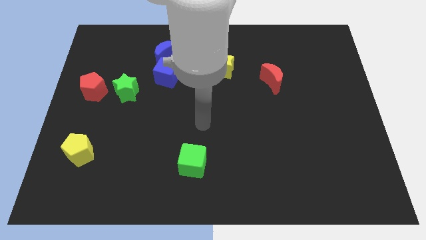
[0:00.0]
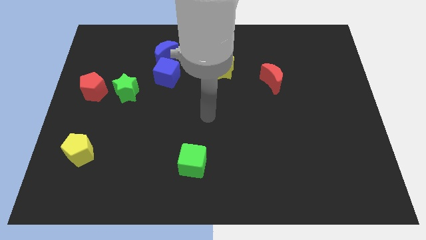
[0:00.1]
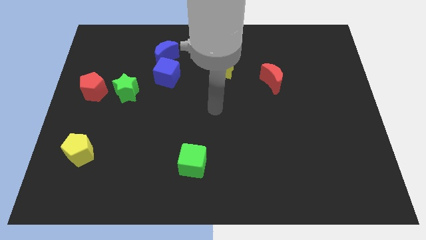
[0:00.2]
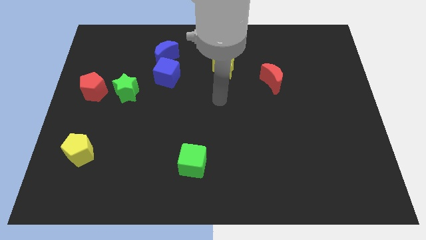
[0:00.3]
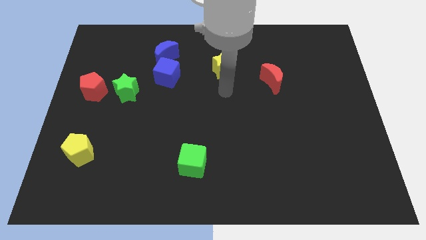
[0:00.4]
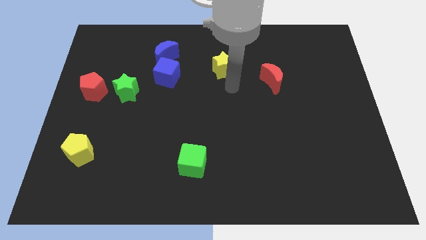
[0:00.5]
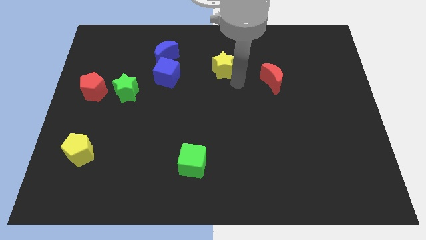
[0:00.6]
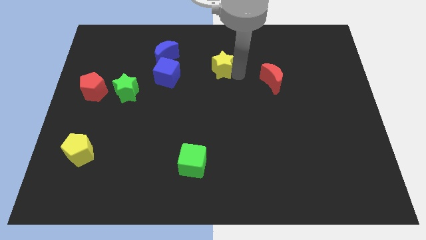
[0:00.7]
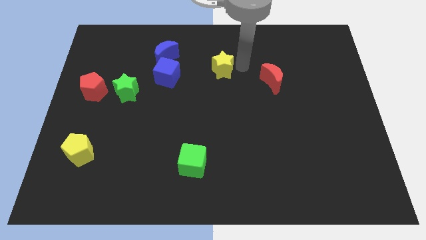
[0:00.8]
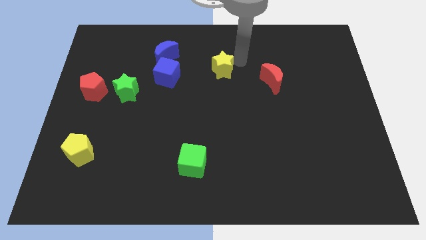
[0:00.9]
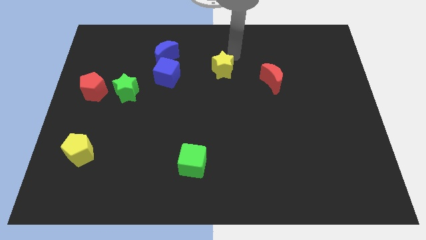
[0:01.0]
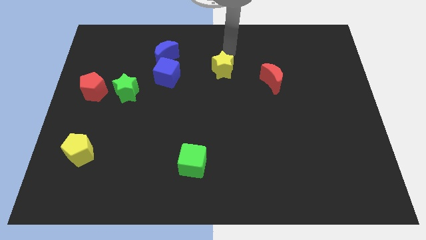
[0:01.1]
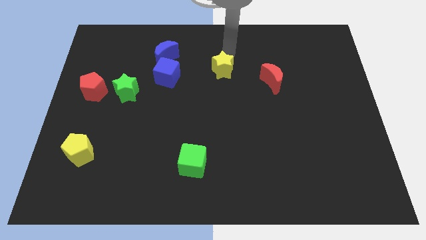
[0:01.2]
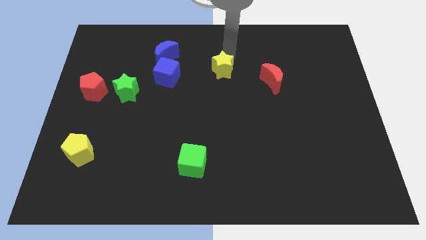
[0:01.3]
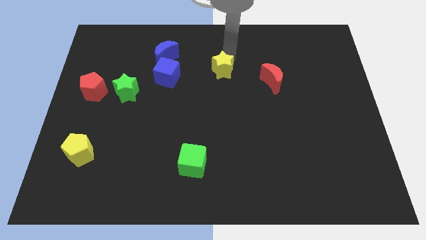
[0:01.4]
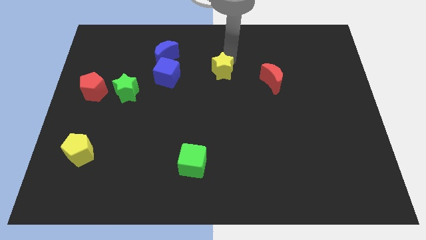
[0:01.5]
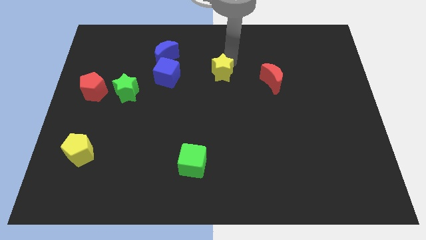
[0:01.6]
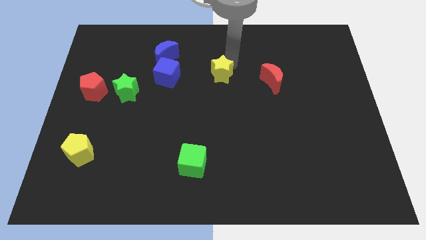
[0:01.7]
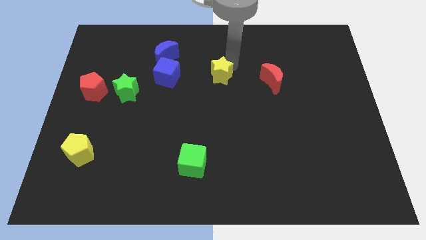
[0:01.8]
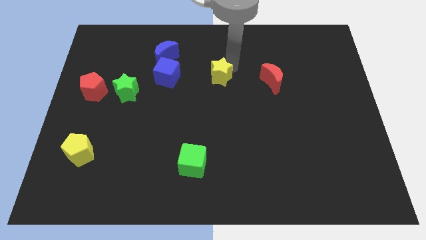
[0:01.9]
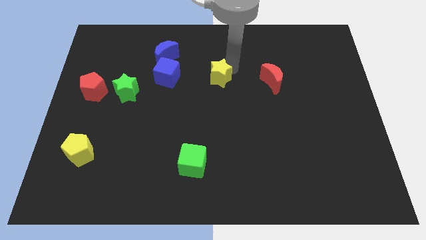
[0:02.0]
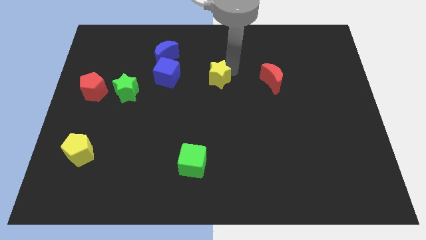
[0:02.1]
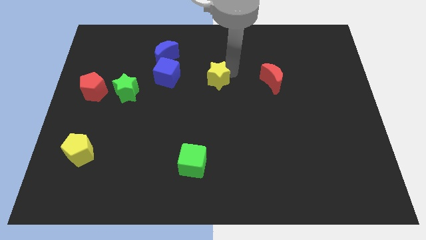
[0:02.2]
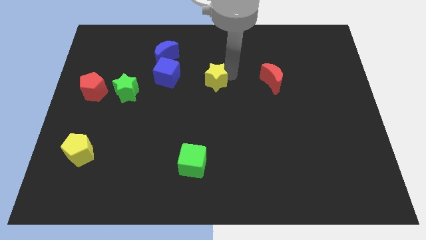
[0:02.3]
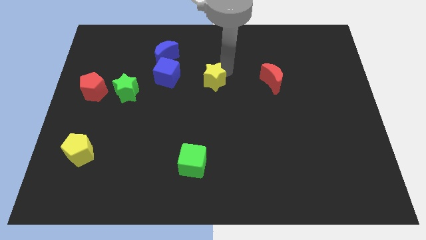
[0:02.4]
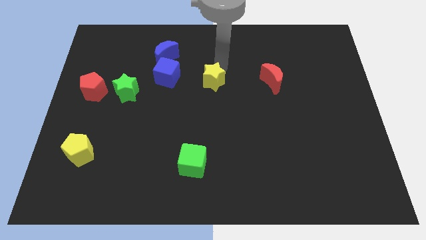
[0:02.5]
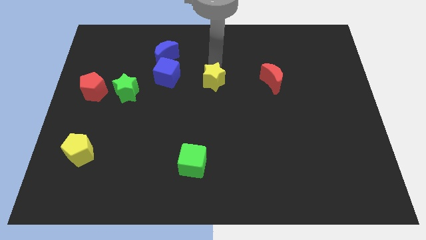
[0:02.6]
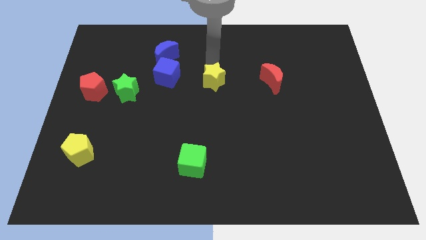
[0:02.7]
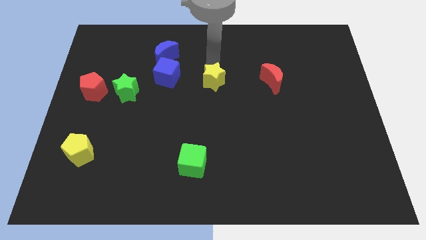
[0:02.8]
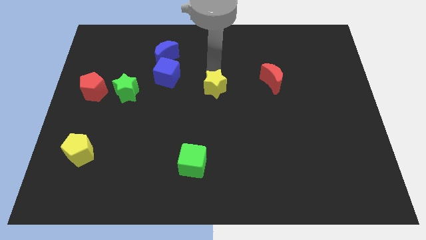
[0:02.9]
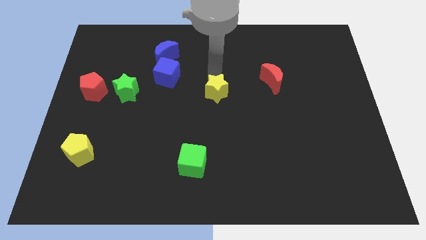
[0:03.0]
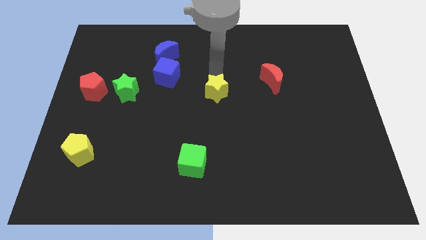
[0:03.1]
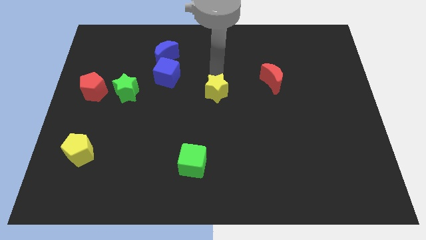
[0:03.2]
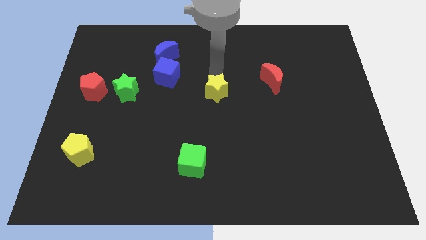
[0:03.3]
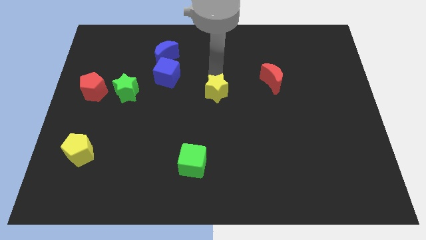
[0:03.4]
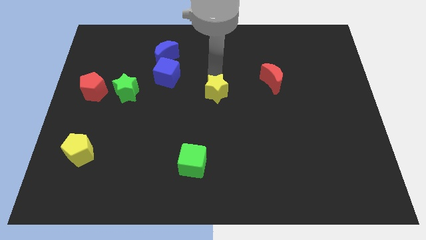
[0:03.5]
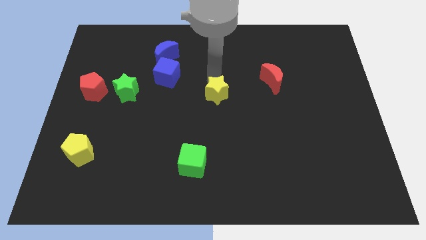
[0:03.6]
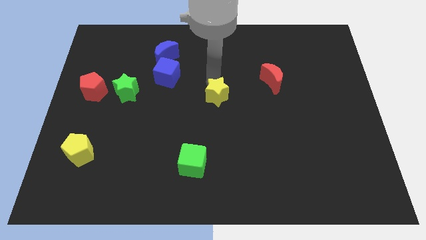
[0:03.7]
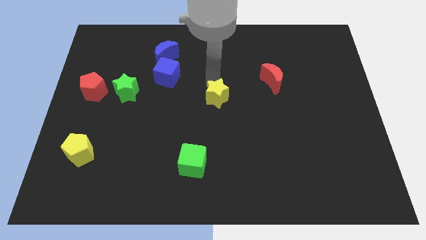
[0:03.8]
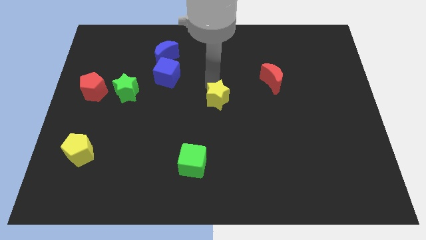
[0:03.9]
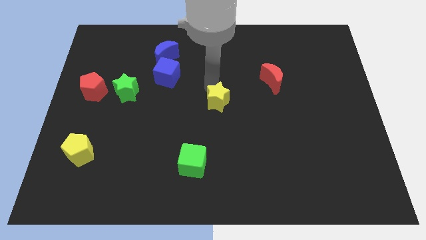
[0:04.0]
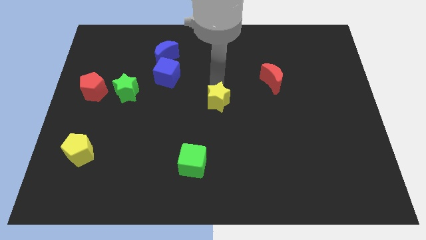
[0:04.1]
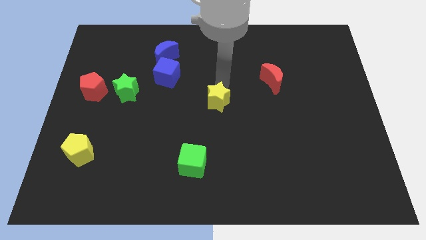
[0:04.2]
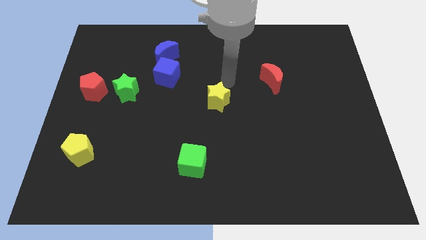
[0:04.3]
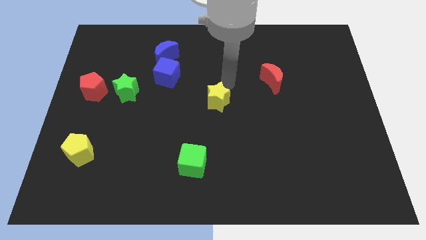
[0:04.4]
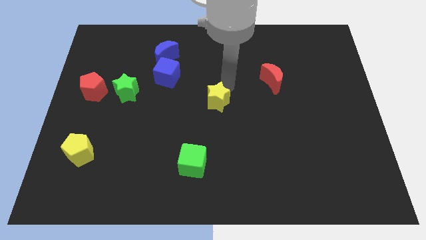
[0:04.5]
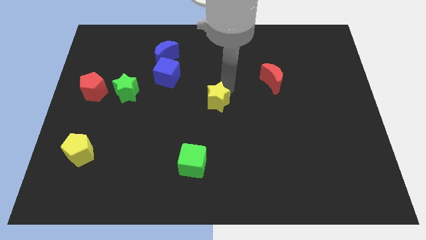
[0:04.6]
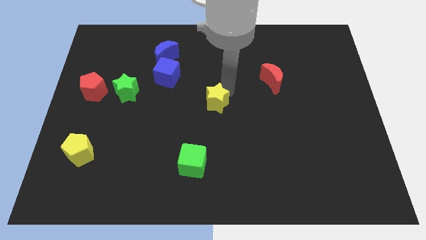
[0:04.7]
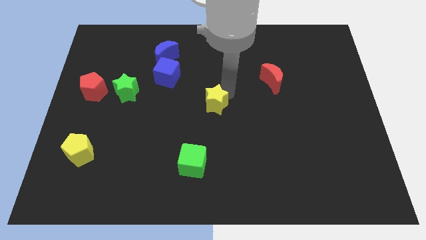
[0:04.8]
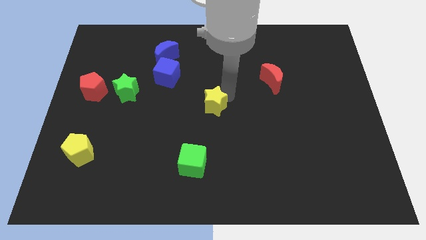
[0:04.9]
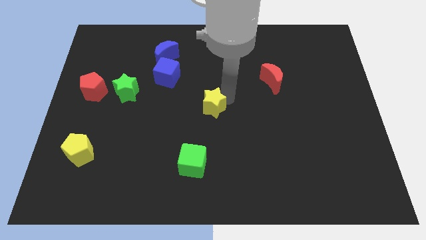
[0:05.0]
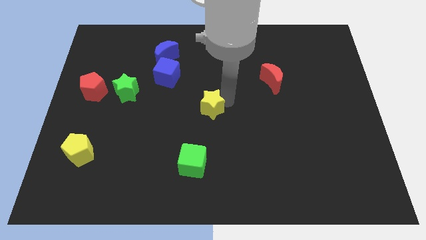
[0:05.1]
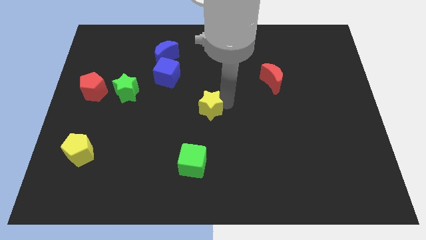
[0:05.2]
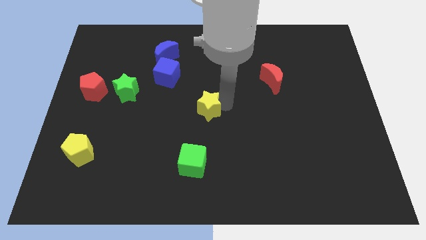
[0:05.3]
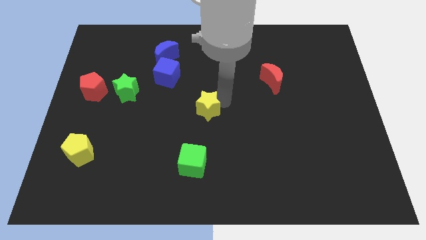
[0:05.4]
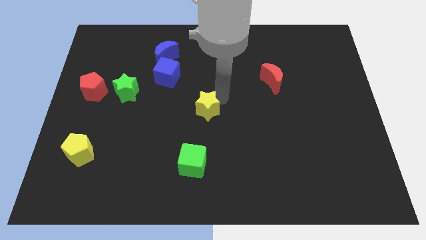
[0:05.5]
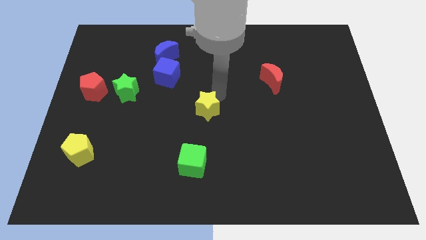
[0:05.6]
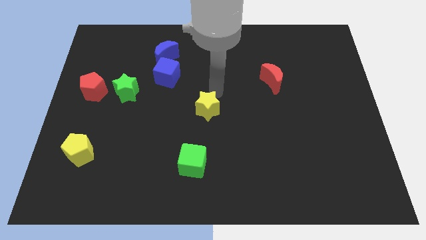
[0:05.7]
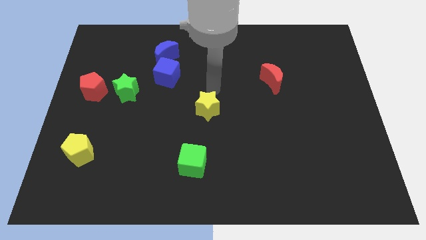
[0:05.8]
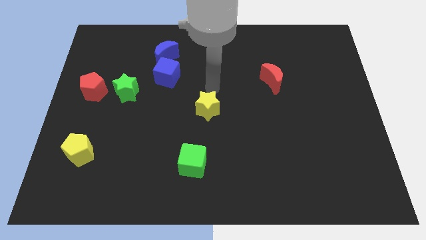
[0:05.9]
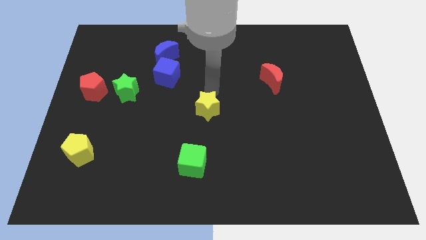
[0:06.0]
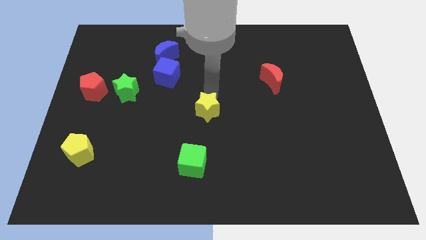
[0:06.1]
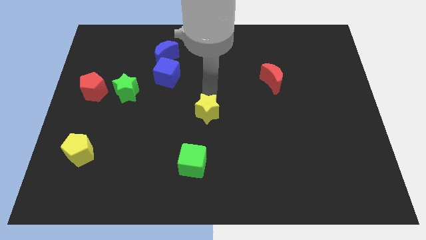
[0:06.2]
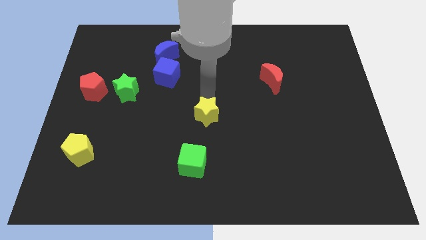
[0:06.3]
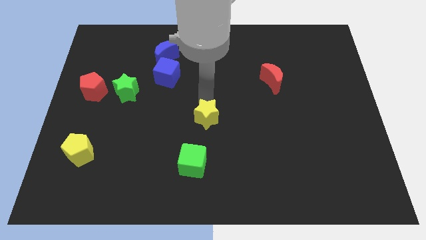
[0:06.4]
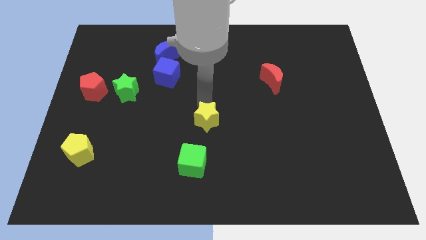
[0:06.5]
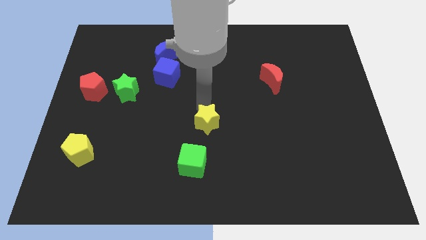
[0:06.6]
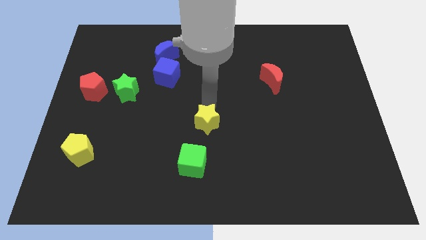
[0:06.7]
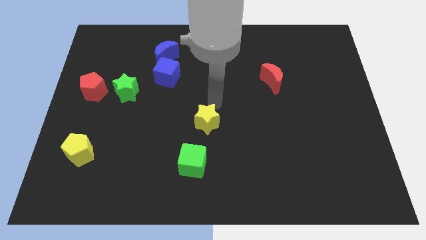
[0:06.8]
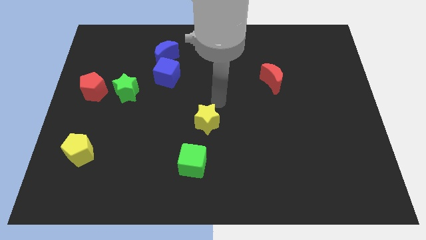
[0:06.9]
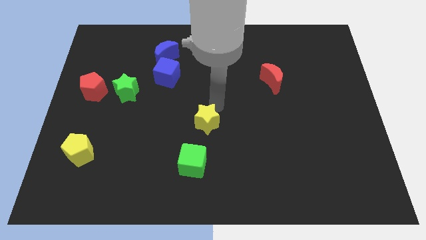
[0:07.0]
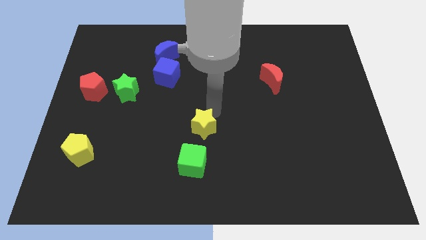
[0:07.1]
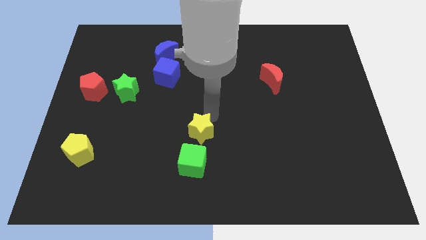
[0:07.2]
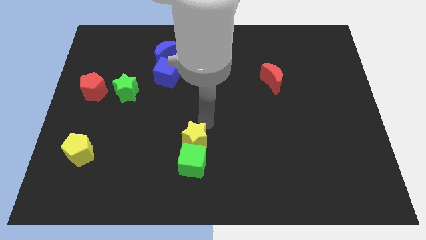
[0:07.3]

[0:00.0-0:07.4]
move the yellow star towards the green cube
